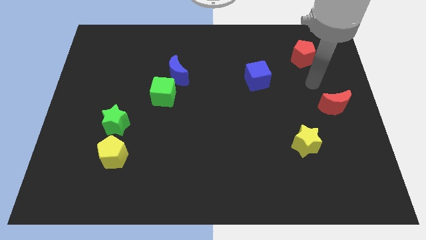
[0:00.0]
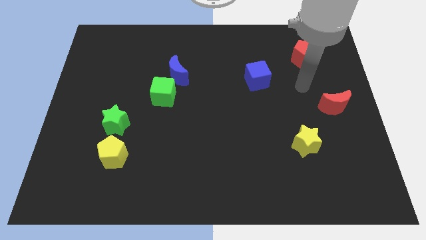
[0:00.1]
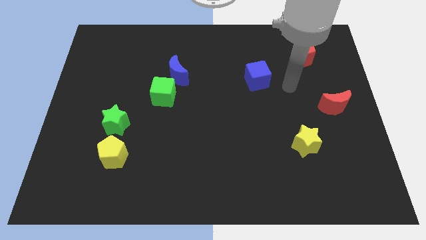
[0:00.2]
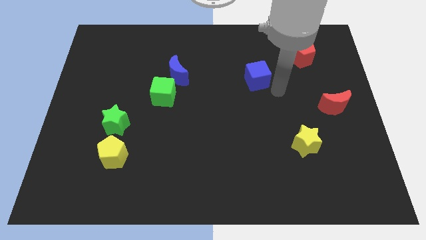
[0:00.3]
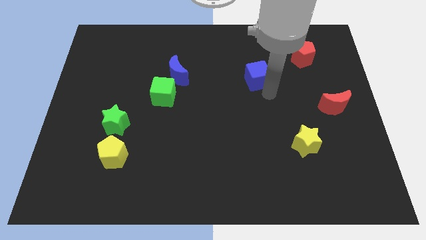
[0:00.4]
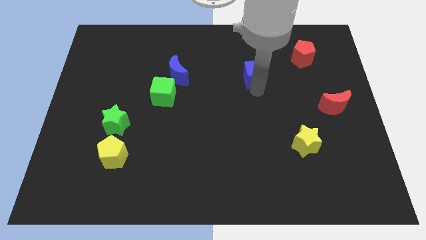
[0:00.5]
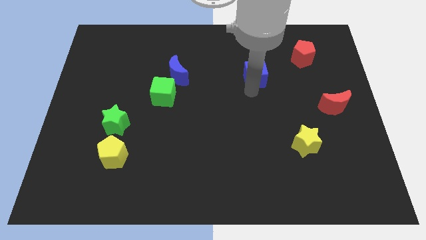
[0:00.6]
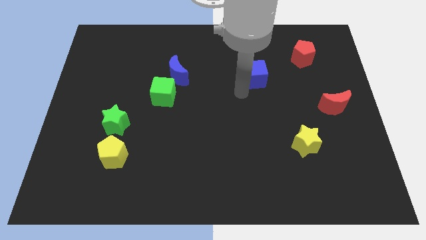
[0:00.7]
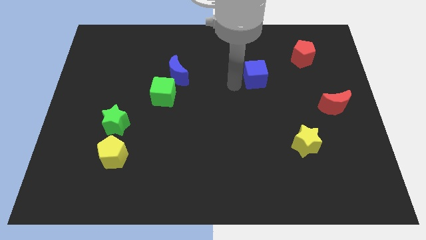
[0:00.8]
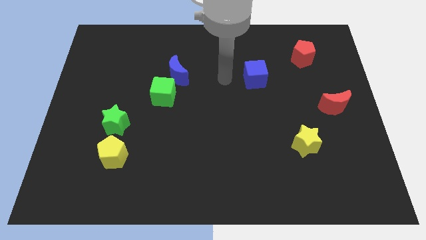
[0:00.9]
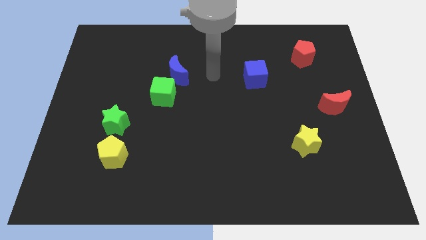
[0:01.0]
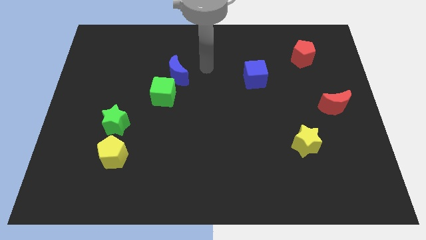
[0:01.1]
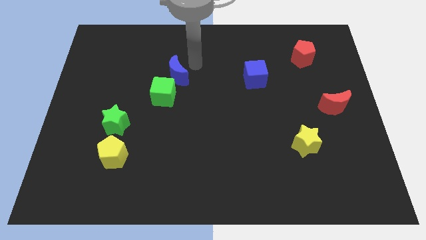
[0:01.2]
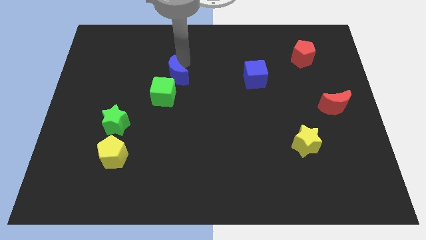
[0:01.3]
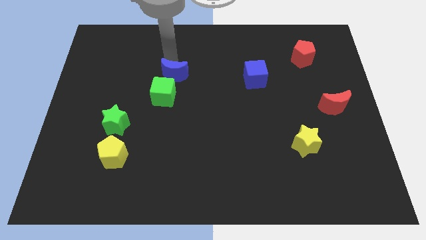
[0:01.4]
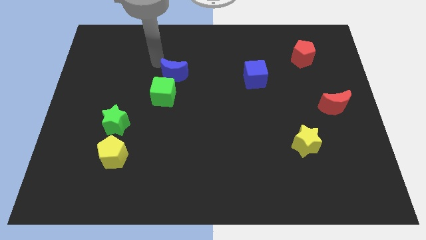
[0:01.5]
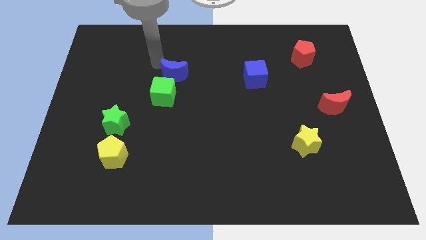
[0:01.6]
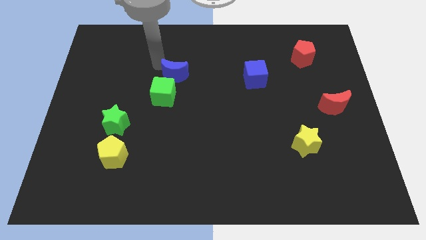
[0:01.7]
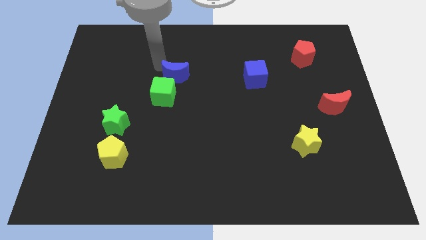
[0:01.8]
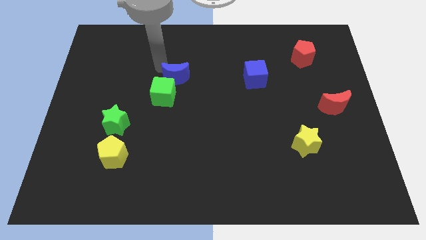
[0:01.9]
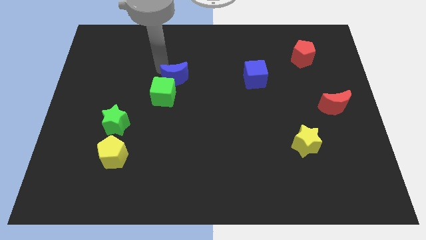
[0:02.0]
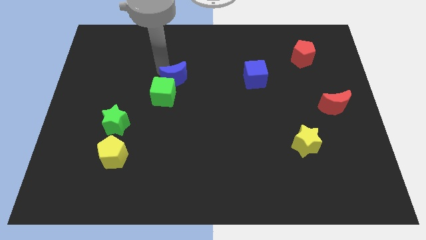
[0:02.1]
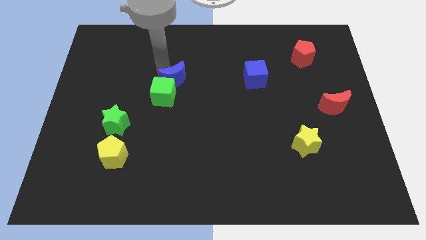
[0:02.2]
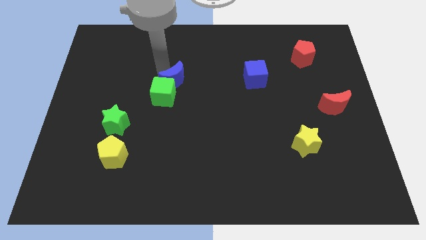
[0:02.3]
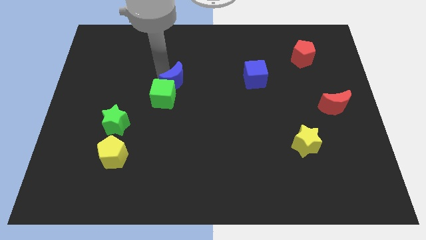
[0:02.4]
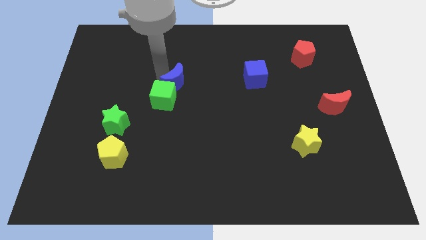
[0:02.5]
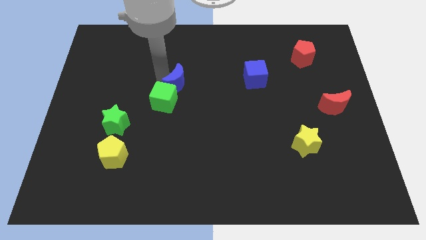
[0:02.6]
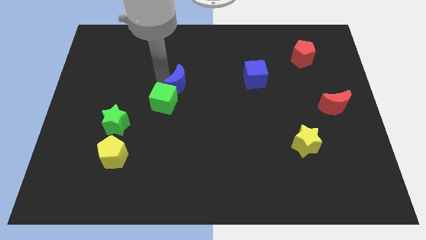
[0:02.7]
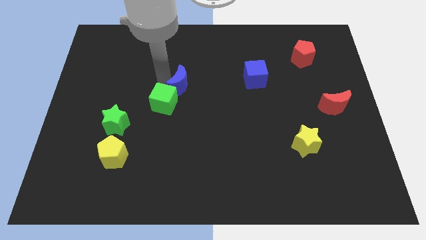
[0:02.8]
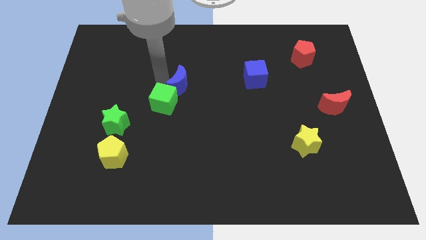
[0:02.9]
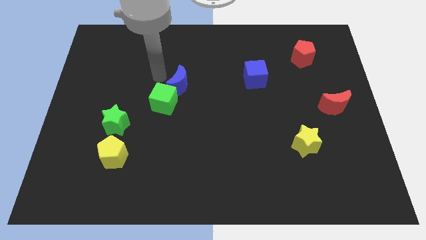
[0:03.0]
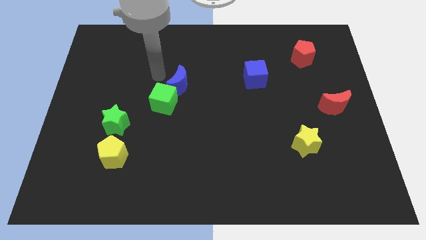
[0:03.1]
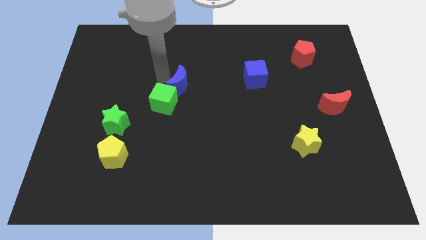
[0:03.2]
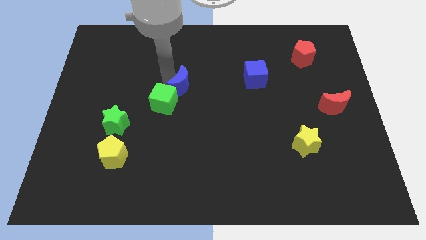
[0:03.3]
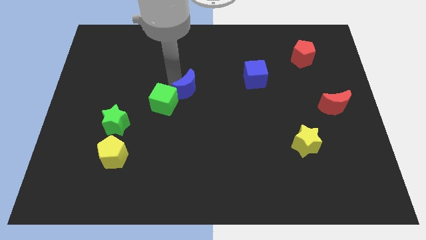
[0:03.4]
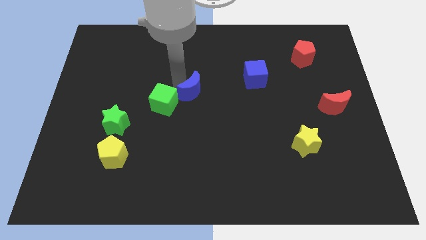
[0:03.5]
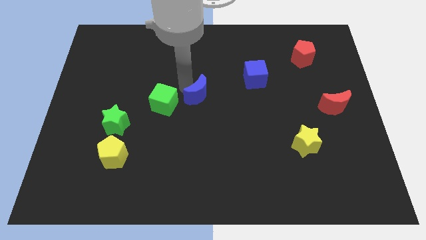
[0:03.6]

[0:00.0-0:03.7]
slightly move the blue moon downwards and to the right diagonally

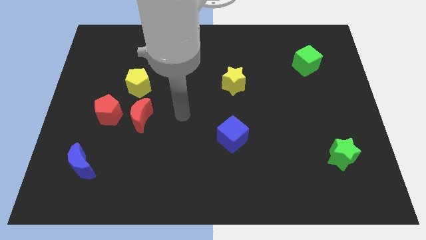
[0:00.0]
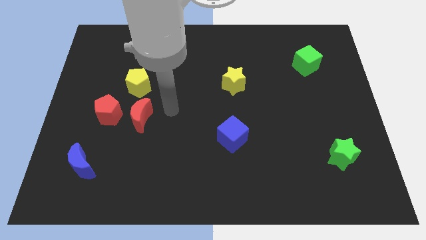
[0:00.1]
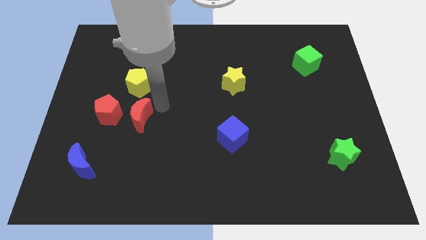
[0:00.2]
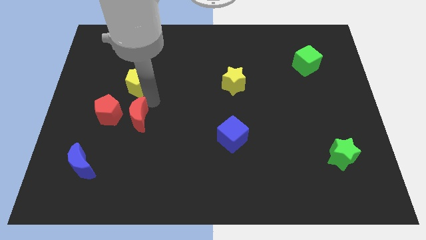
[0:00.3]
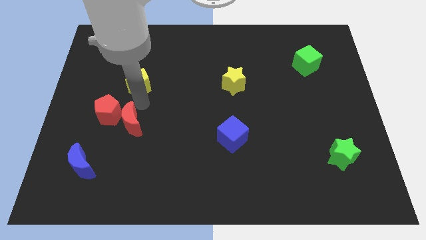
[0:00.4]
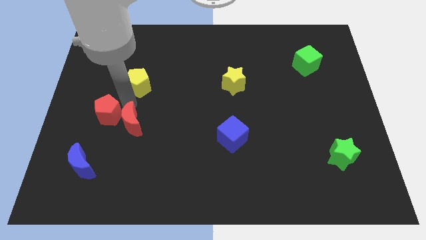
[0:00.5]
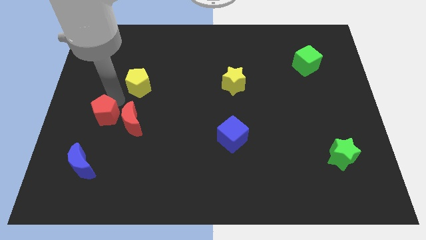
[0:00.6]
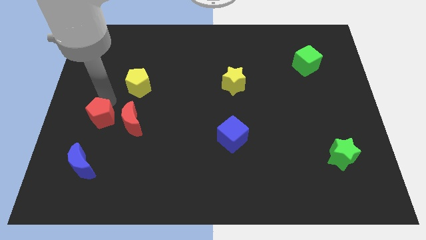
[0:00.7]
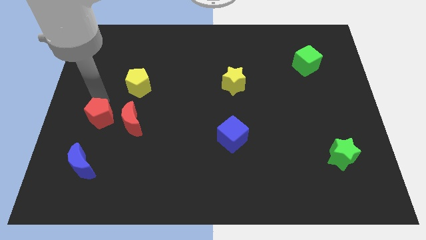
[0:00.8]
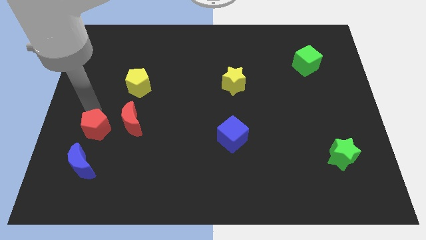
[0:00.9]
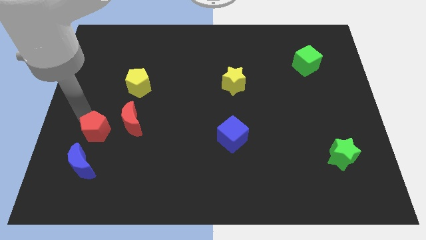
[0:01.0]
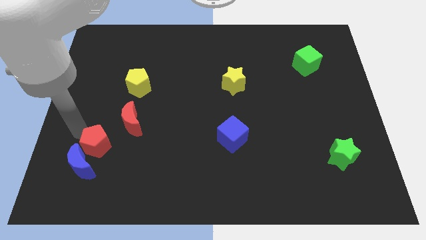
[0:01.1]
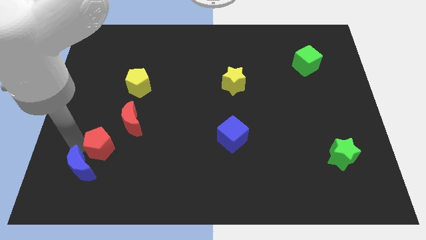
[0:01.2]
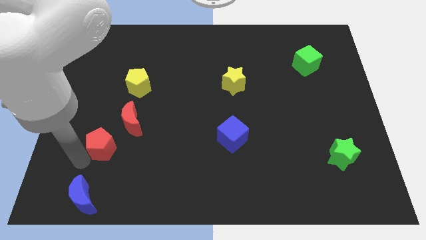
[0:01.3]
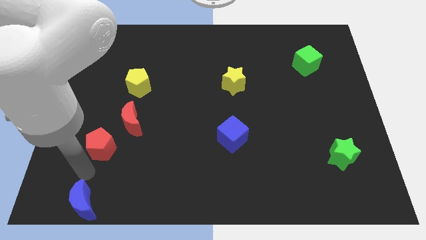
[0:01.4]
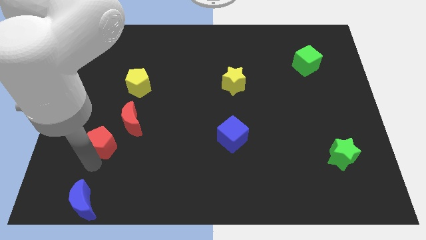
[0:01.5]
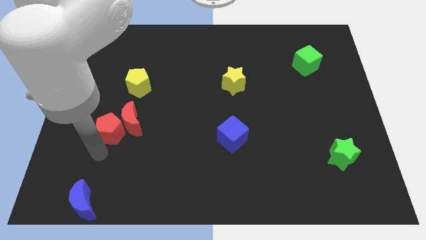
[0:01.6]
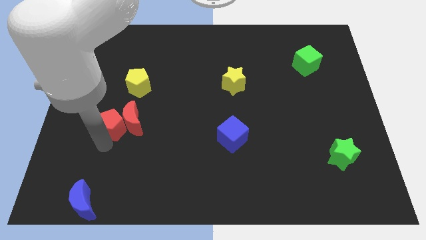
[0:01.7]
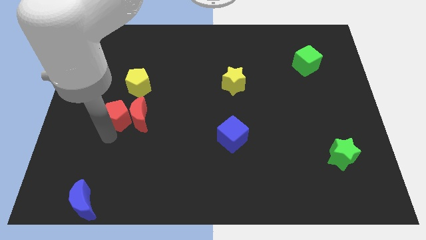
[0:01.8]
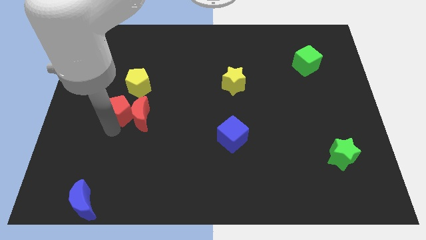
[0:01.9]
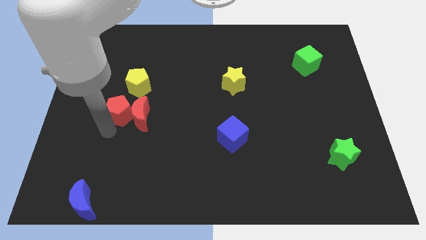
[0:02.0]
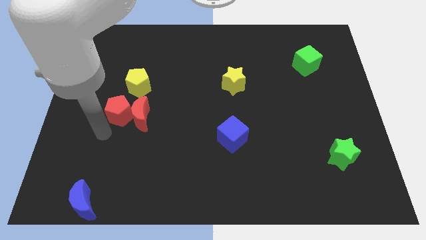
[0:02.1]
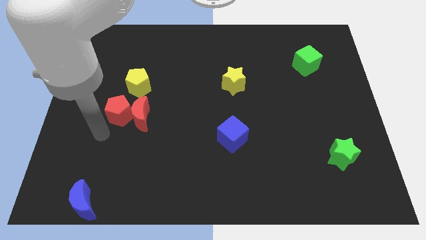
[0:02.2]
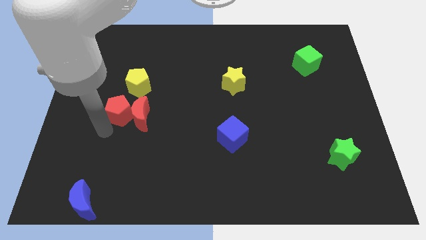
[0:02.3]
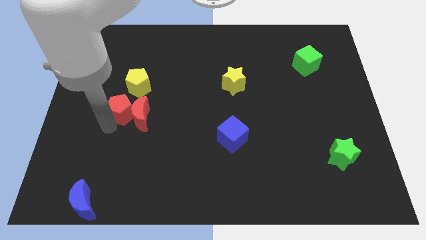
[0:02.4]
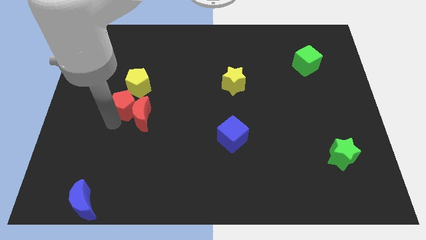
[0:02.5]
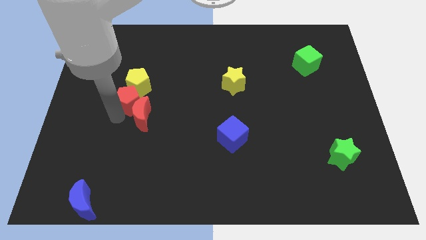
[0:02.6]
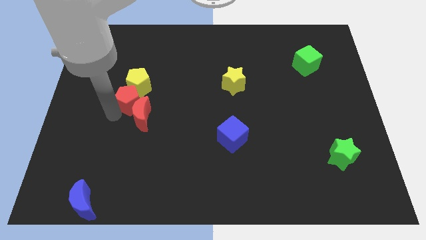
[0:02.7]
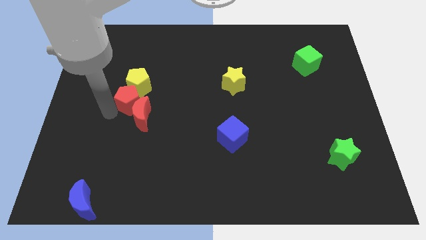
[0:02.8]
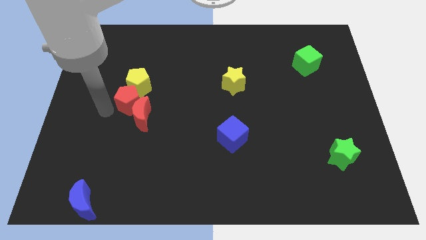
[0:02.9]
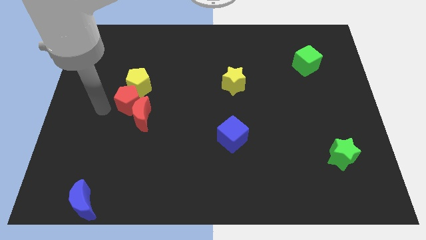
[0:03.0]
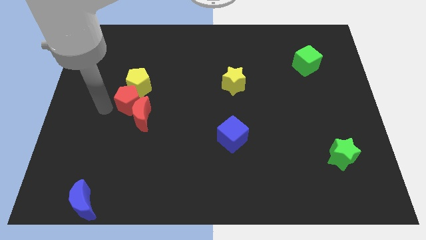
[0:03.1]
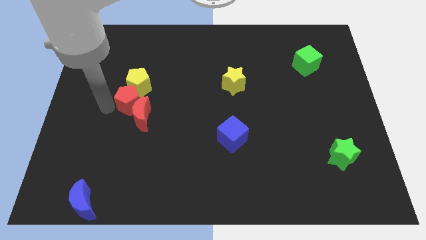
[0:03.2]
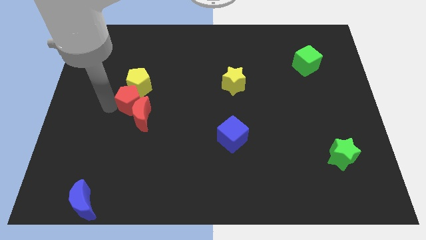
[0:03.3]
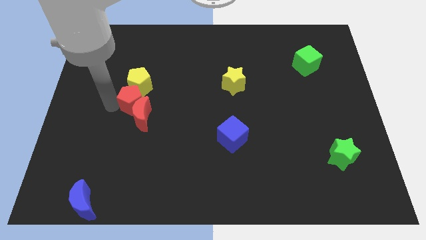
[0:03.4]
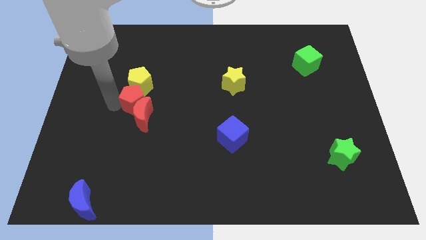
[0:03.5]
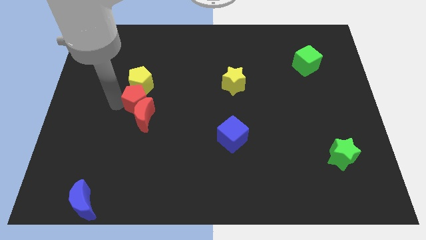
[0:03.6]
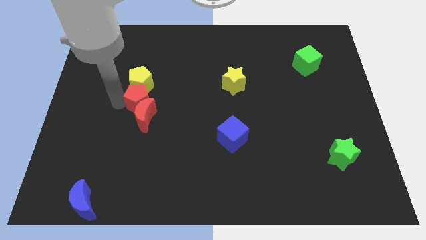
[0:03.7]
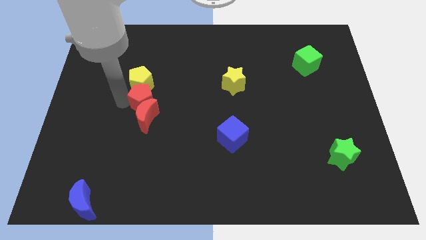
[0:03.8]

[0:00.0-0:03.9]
slightly move the red pentagon right

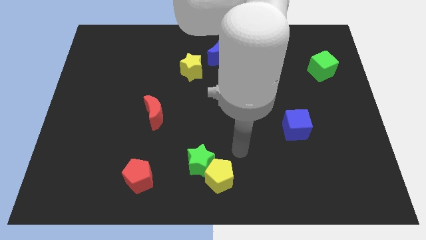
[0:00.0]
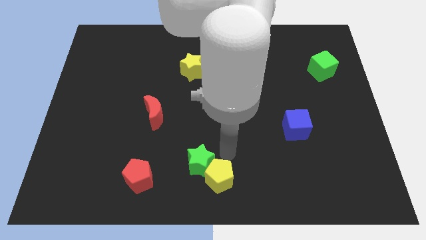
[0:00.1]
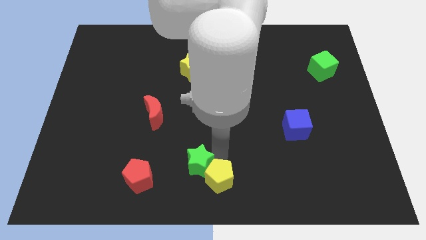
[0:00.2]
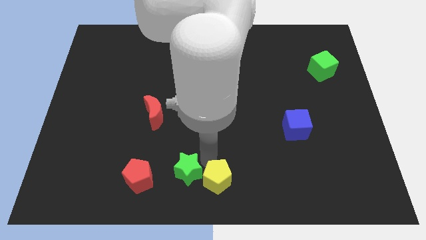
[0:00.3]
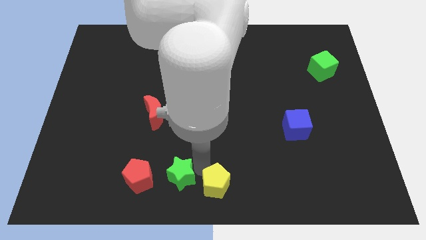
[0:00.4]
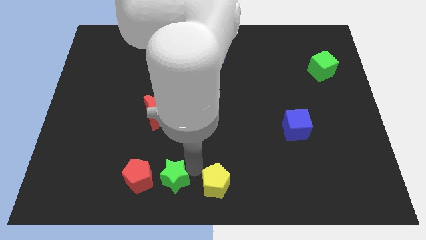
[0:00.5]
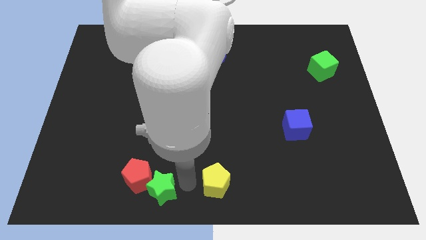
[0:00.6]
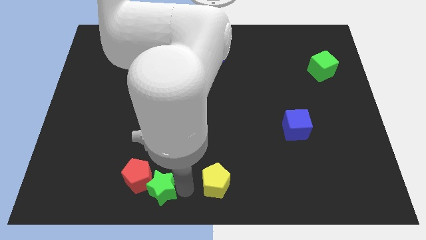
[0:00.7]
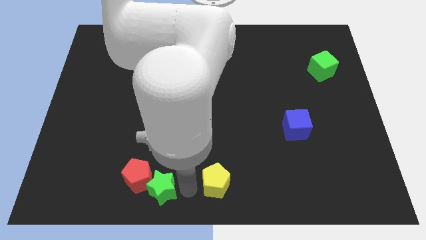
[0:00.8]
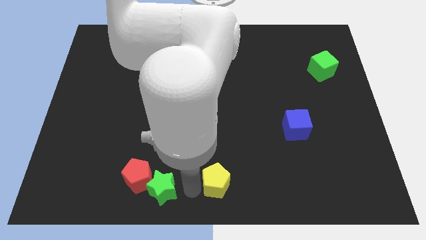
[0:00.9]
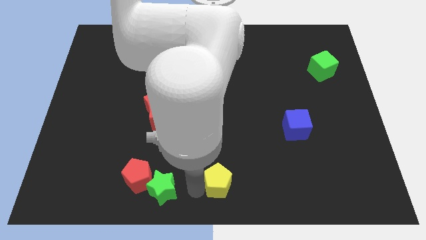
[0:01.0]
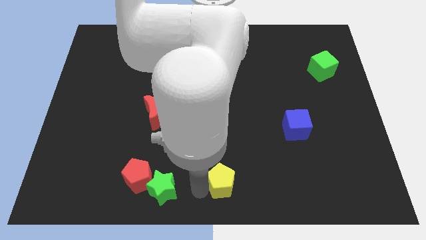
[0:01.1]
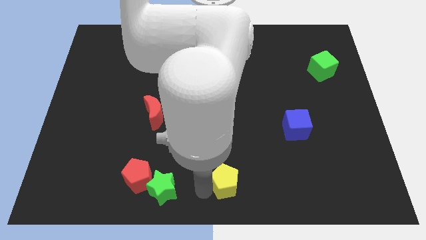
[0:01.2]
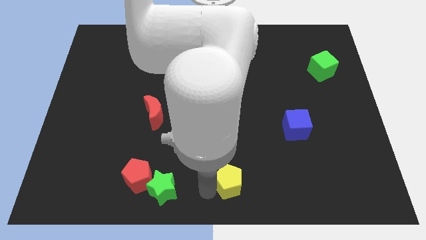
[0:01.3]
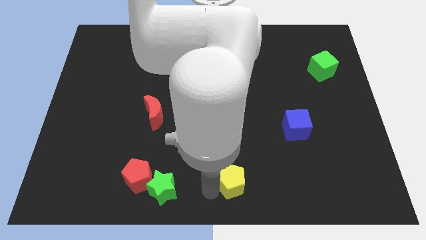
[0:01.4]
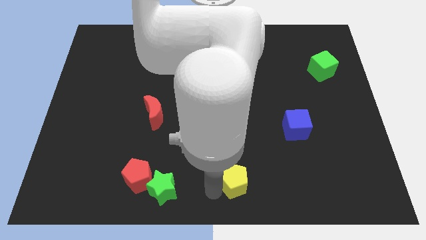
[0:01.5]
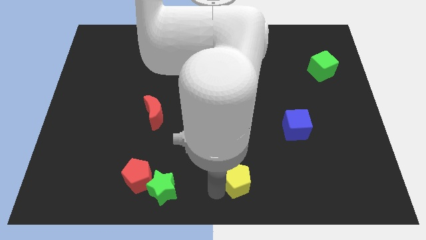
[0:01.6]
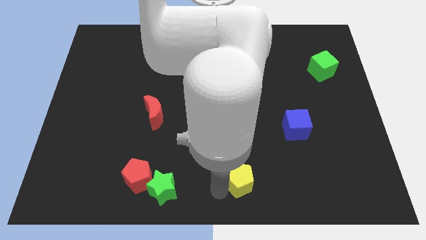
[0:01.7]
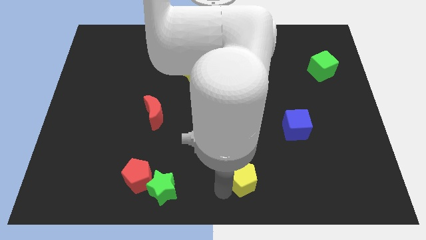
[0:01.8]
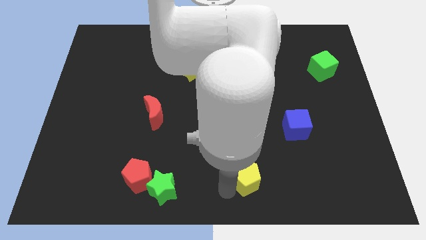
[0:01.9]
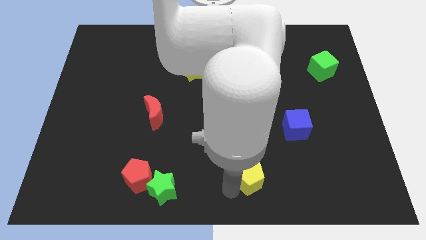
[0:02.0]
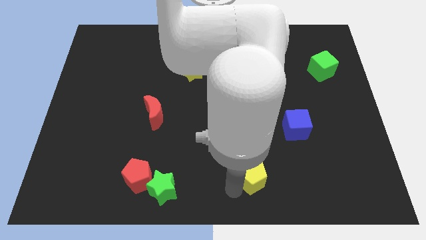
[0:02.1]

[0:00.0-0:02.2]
slightly slide the yellow pentagon right
